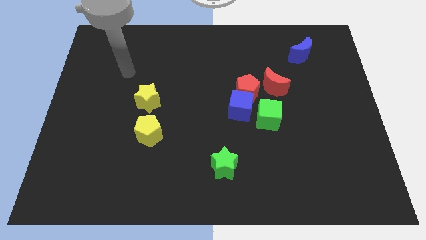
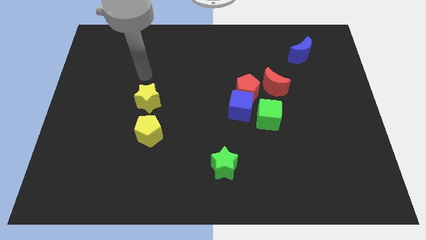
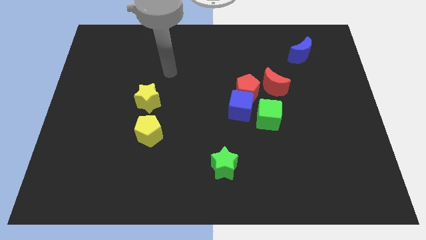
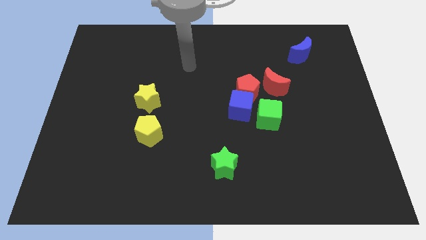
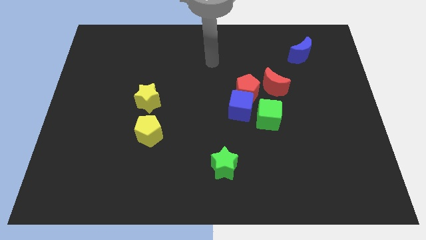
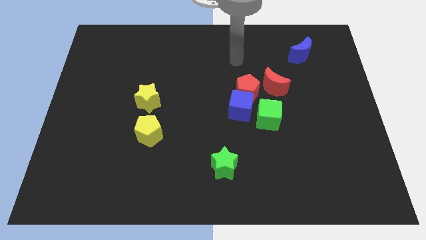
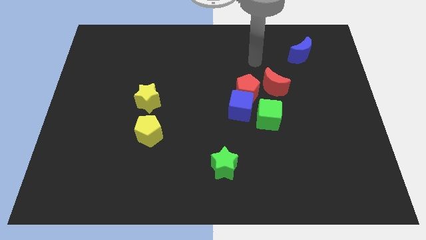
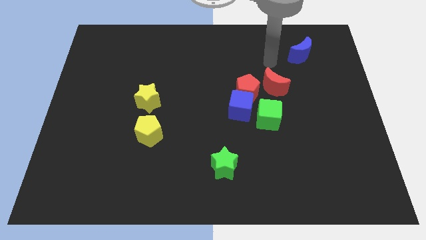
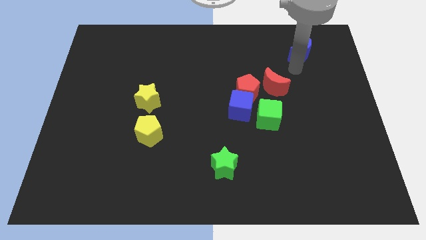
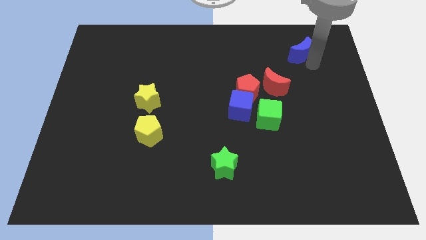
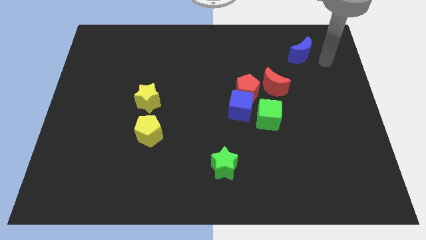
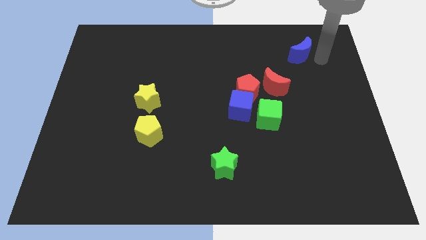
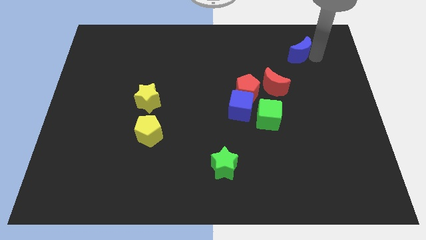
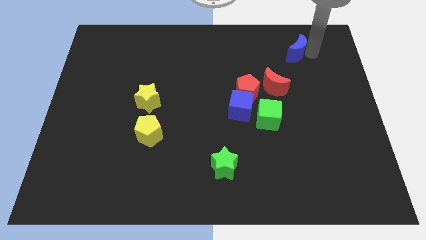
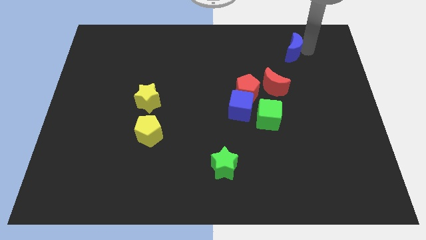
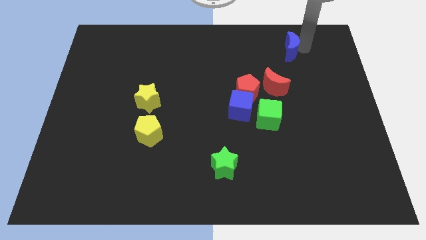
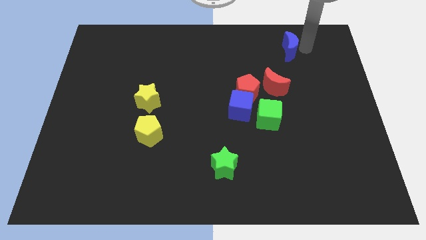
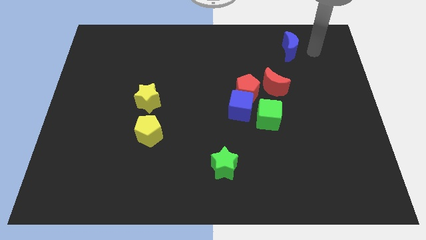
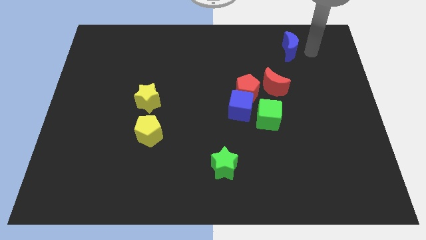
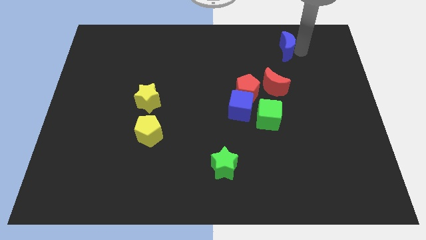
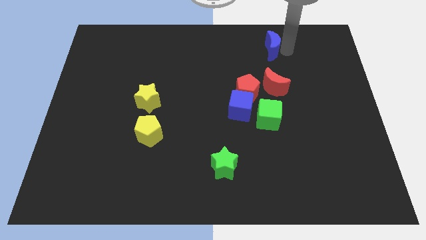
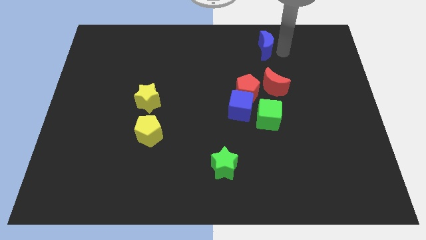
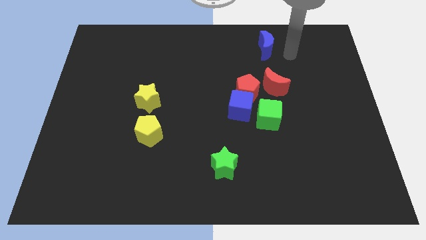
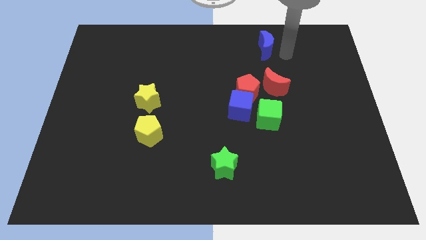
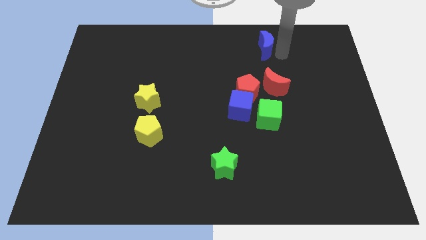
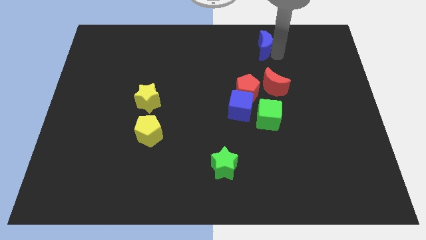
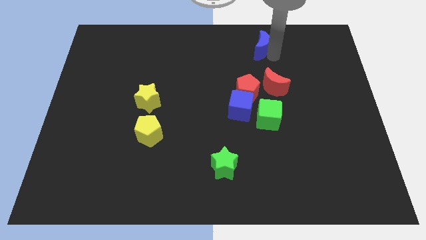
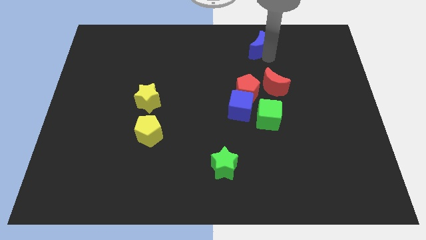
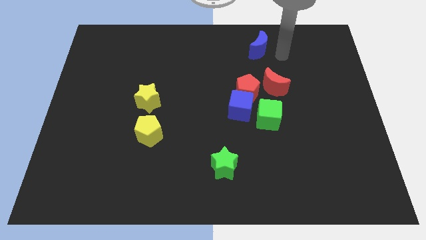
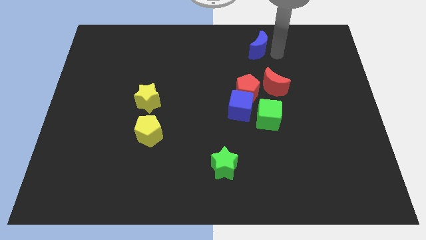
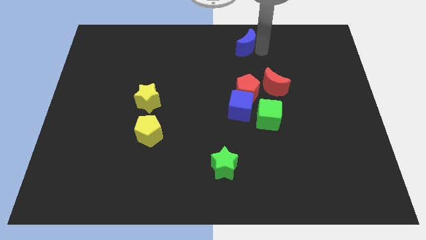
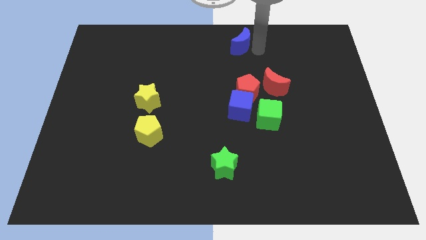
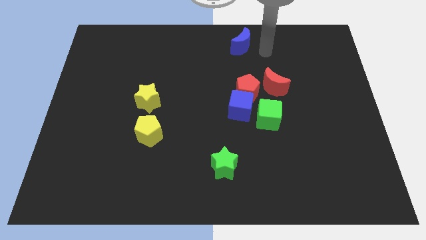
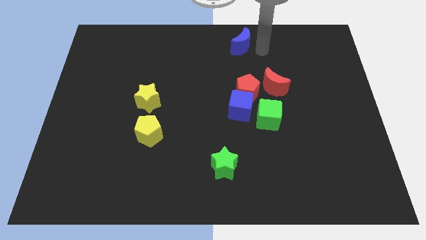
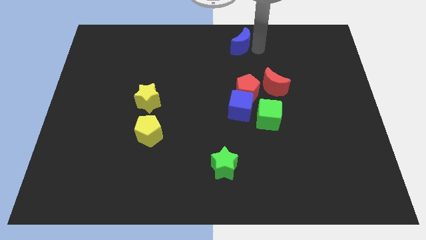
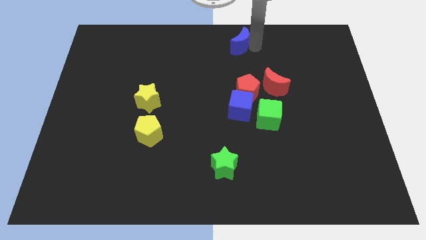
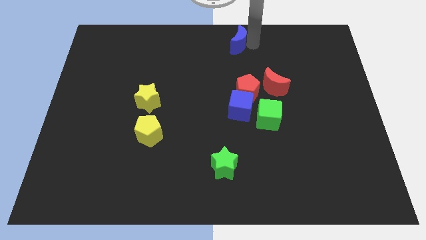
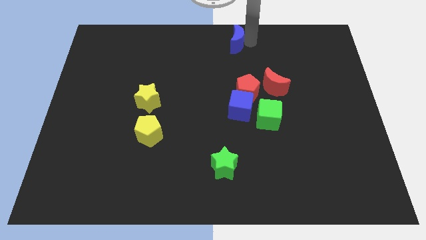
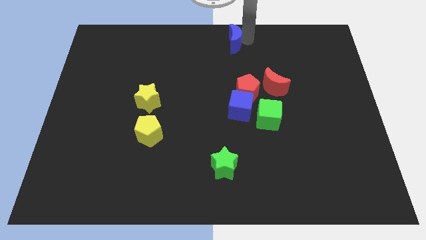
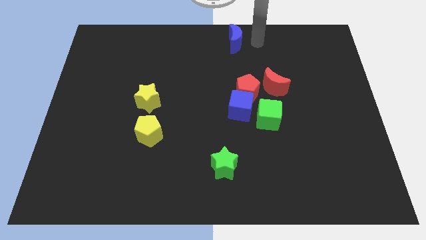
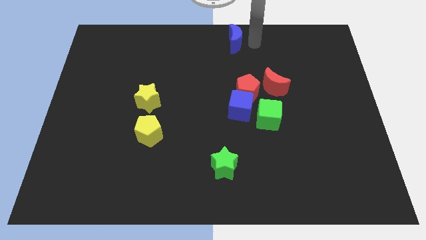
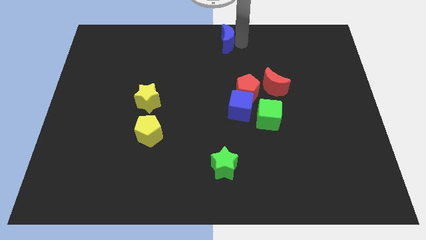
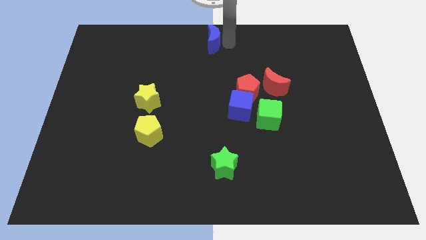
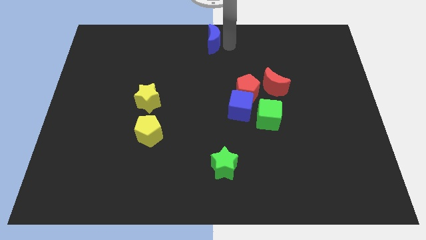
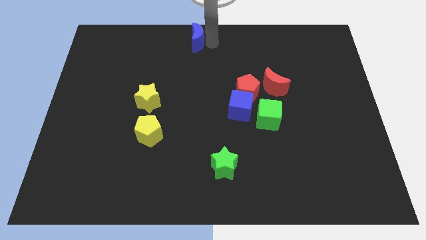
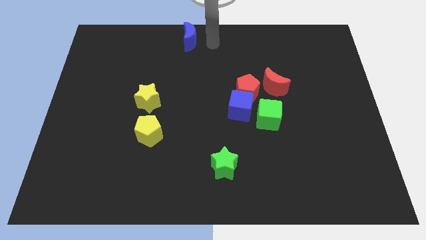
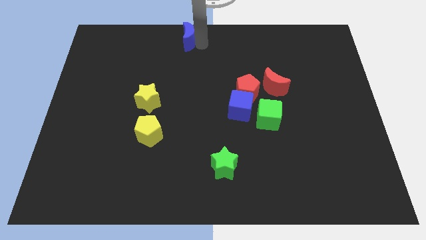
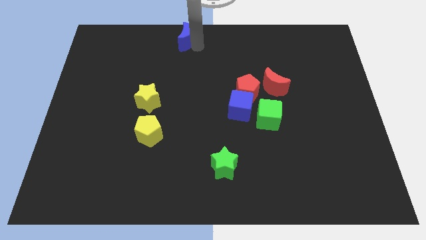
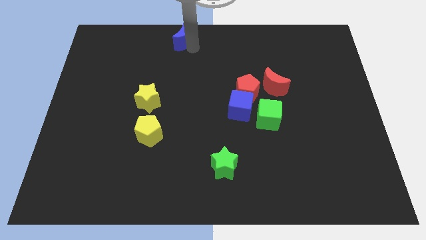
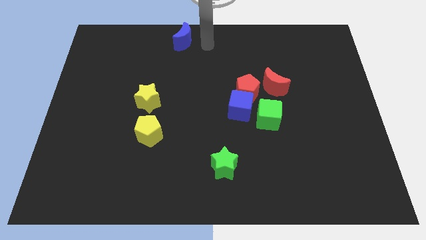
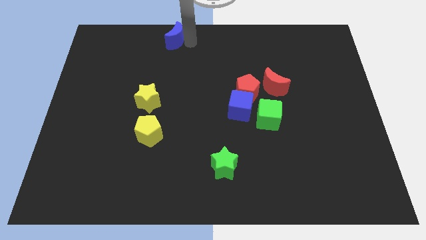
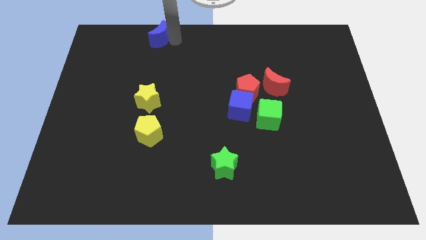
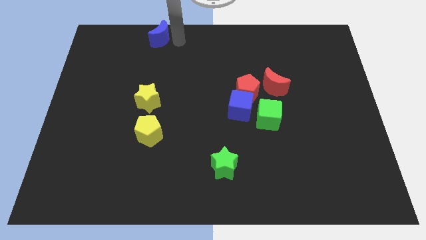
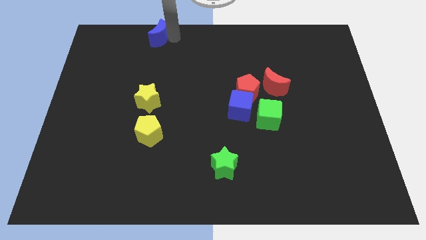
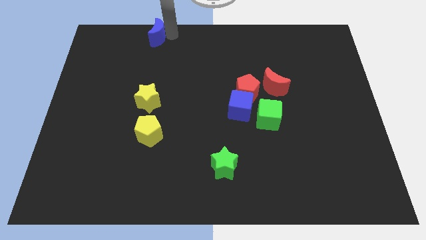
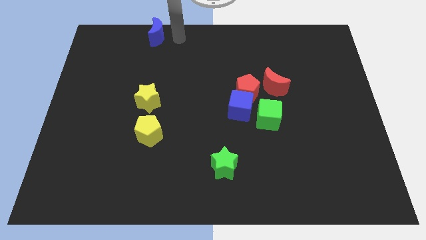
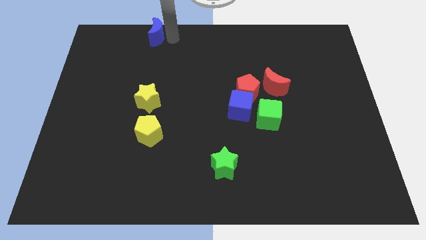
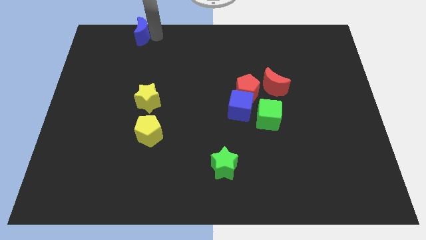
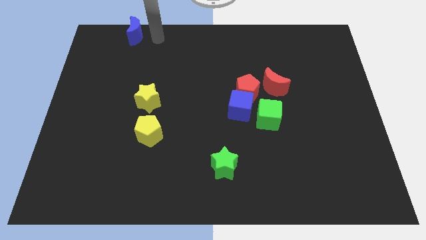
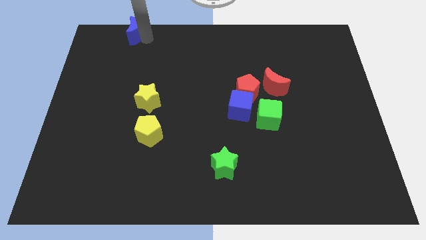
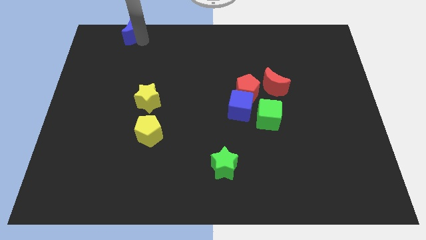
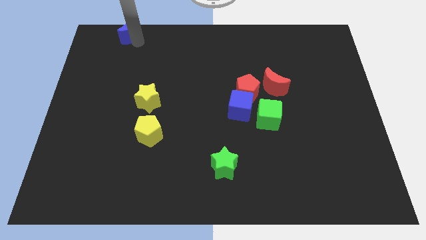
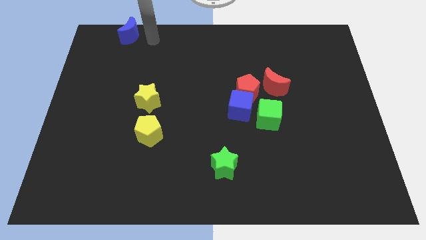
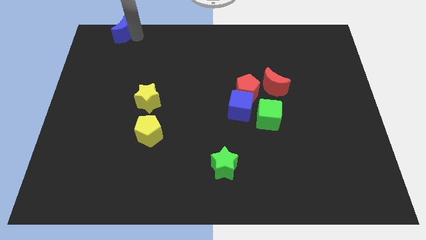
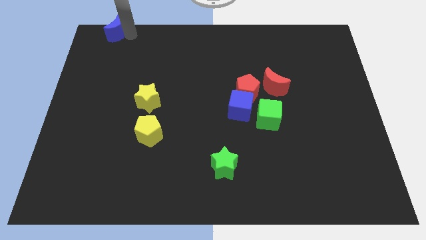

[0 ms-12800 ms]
move the blue moon to the upper left corner

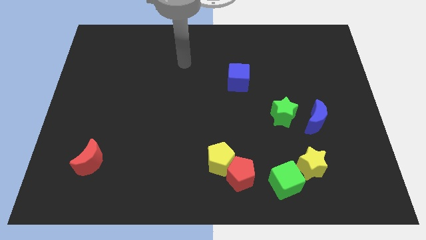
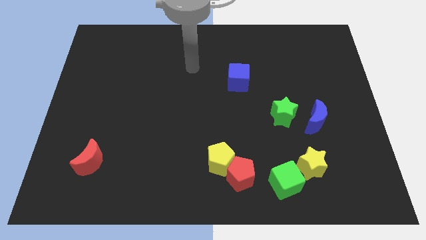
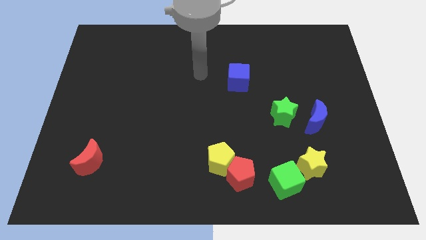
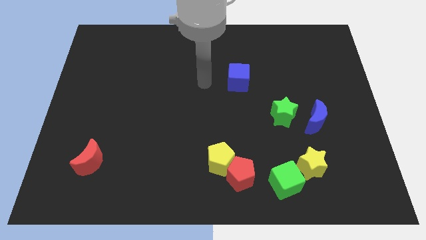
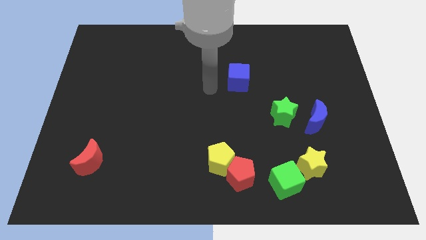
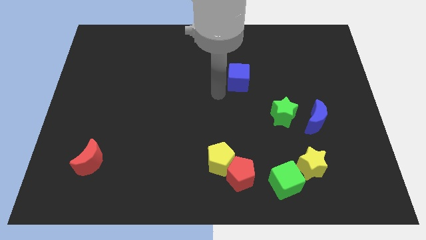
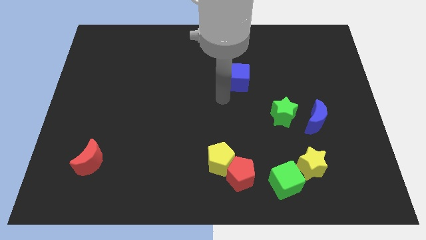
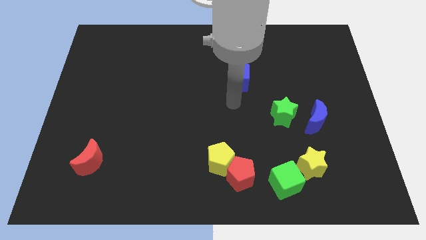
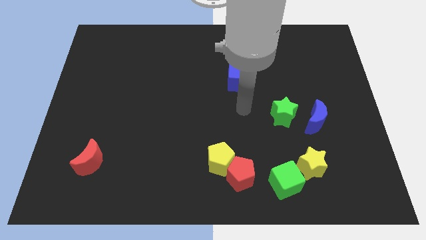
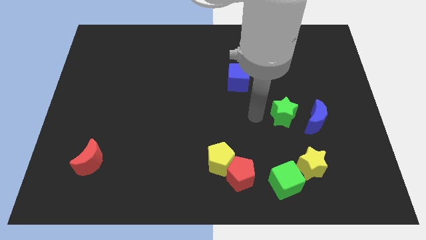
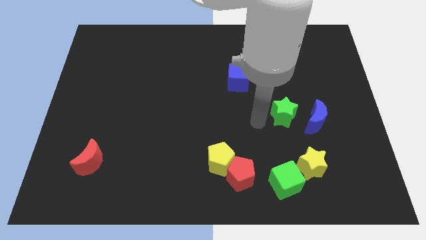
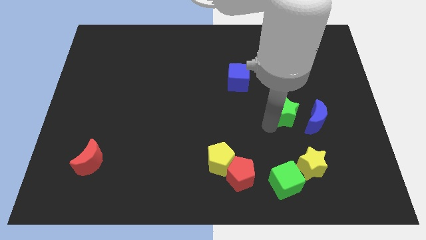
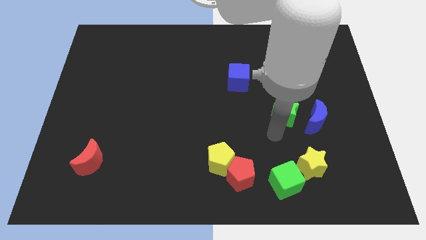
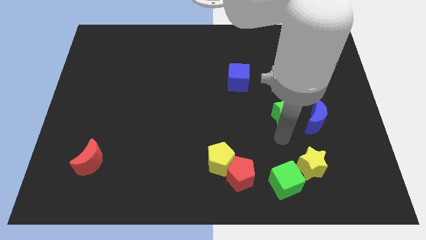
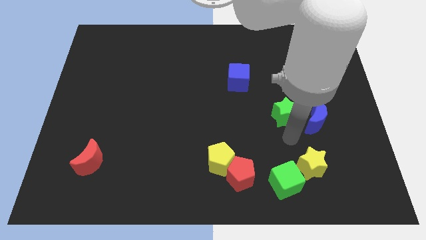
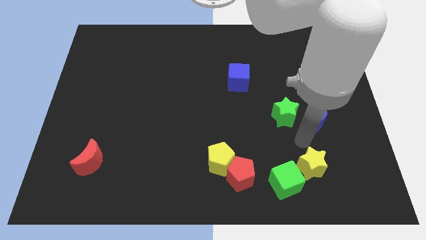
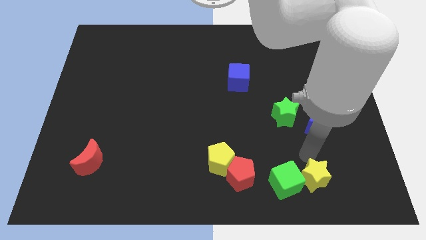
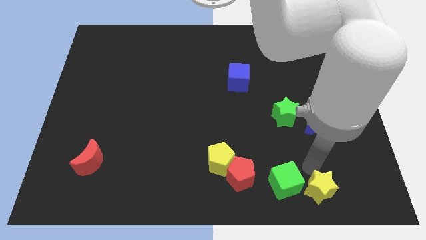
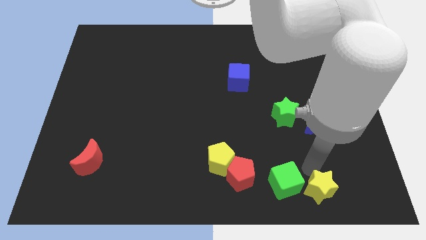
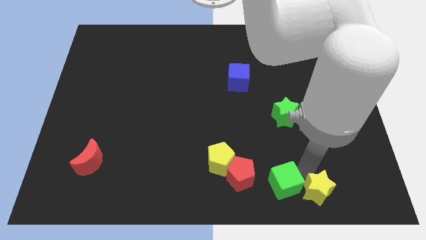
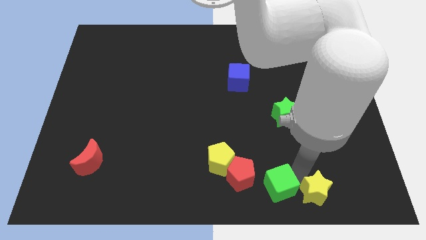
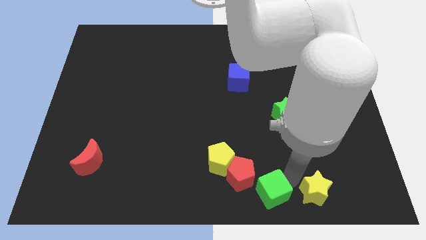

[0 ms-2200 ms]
put the green cube to the bottom side
